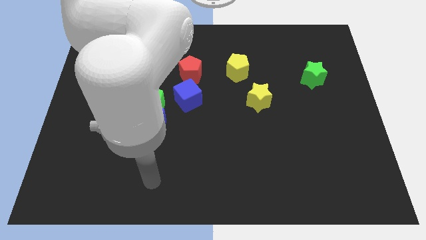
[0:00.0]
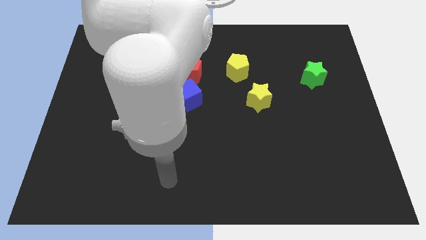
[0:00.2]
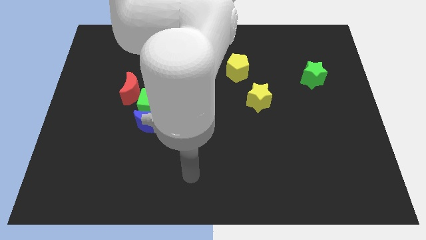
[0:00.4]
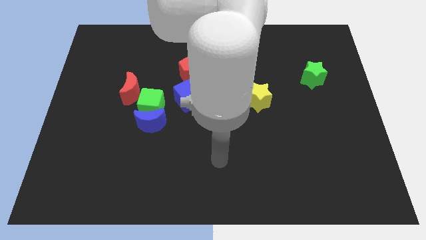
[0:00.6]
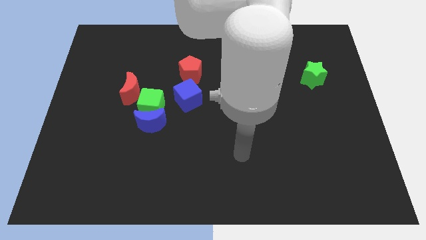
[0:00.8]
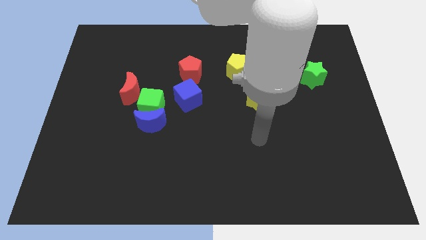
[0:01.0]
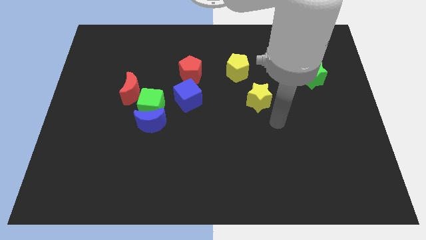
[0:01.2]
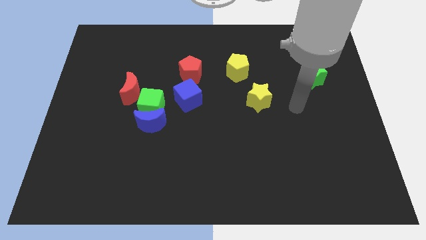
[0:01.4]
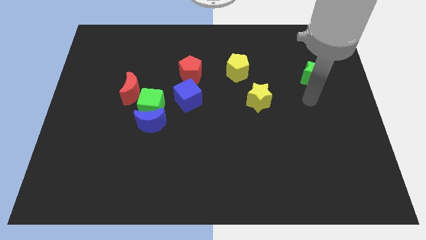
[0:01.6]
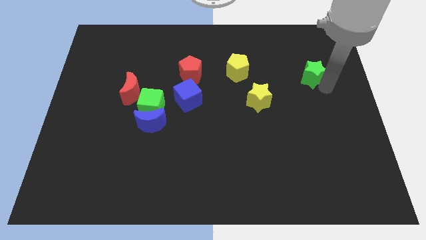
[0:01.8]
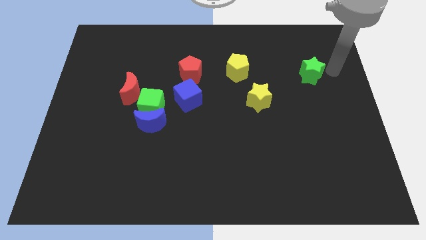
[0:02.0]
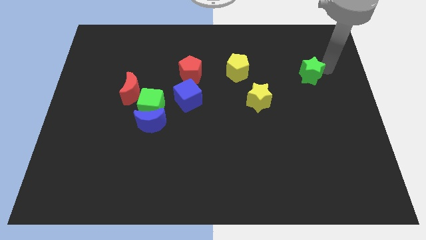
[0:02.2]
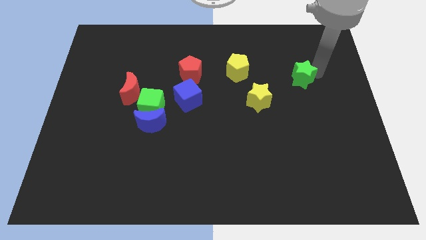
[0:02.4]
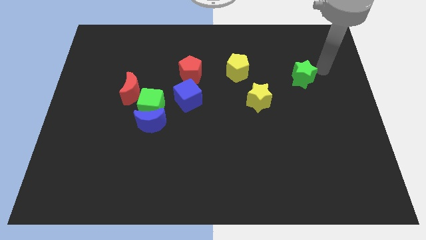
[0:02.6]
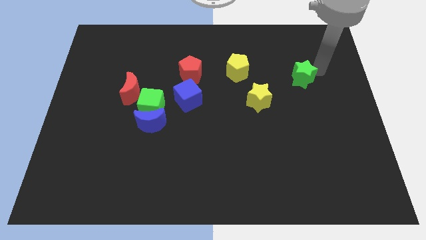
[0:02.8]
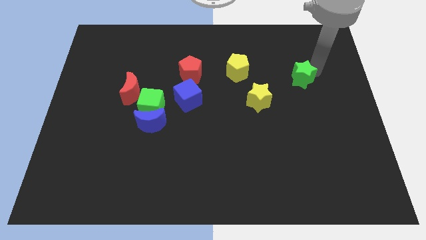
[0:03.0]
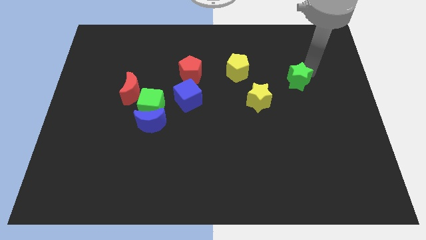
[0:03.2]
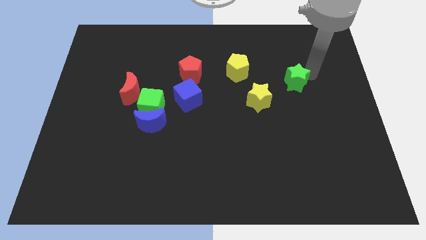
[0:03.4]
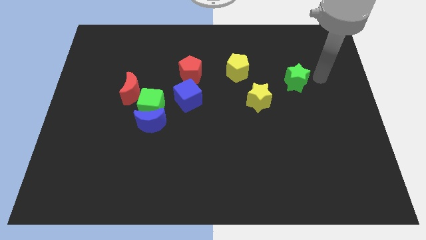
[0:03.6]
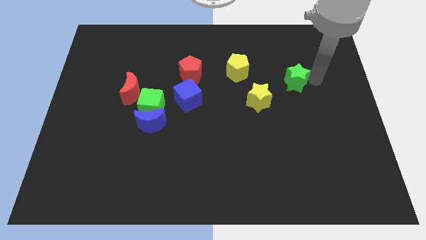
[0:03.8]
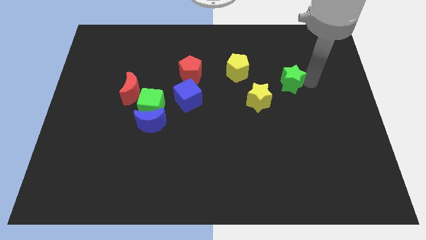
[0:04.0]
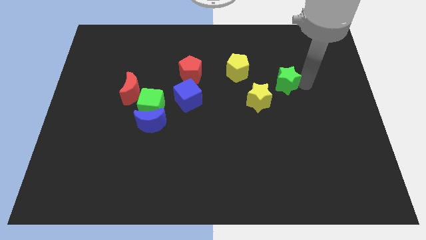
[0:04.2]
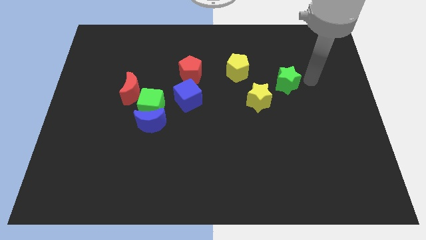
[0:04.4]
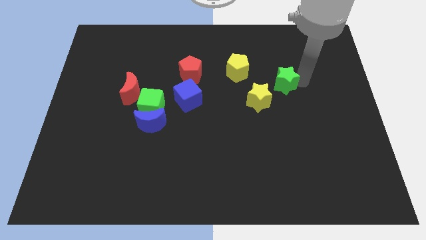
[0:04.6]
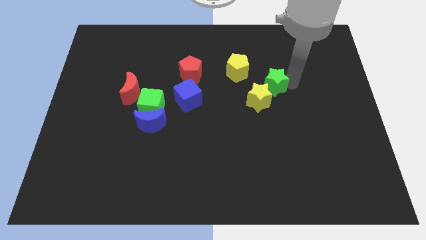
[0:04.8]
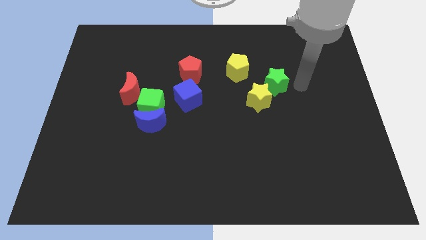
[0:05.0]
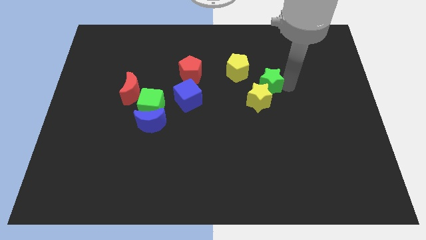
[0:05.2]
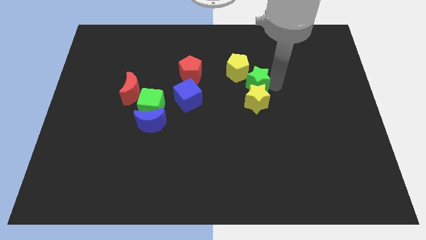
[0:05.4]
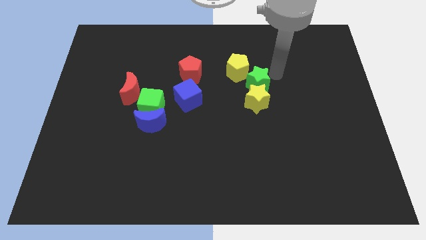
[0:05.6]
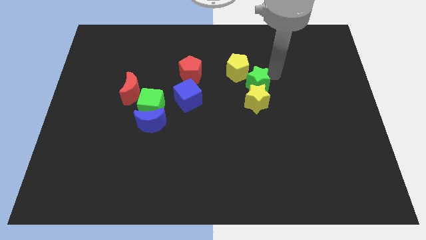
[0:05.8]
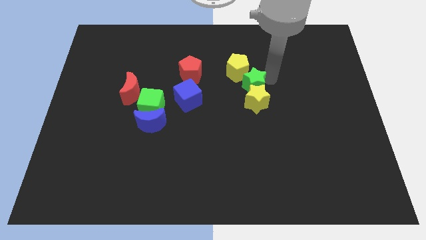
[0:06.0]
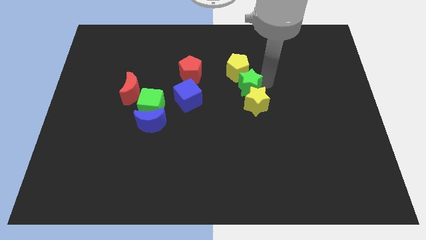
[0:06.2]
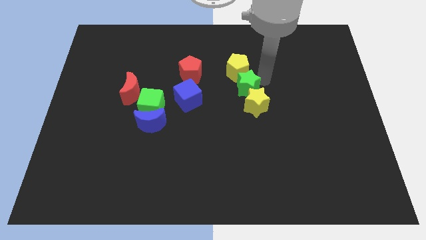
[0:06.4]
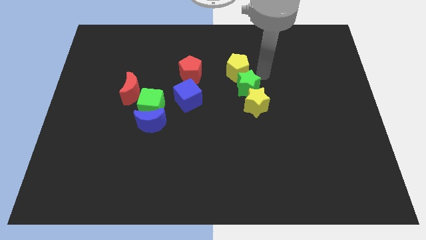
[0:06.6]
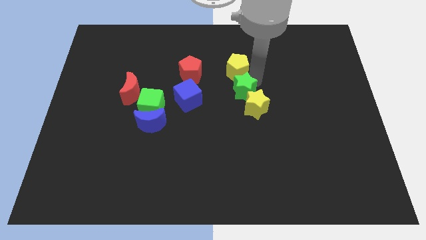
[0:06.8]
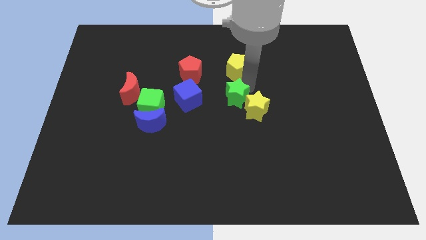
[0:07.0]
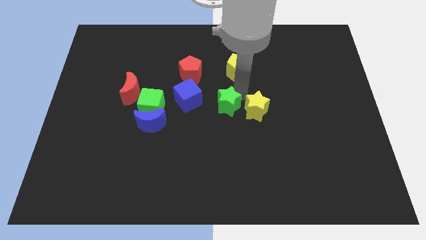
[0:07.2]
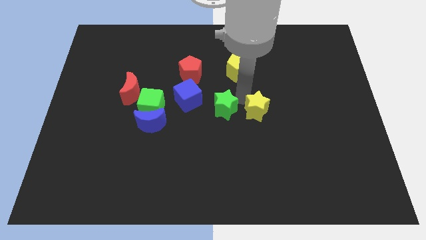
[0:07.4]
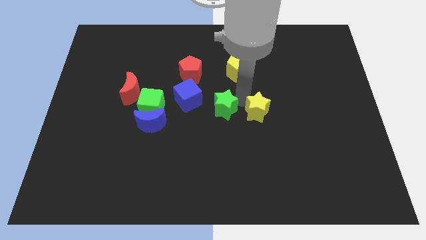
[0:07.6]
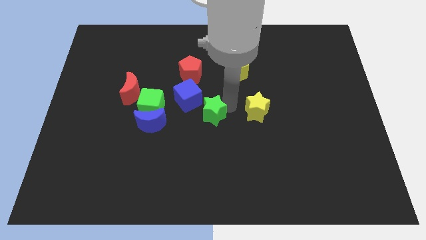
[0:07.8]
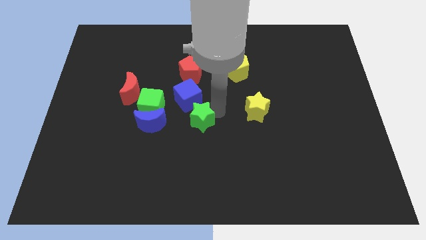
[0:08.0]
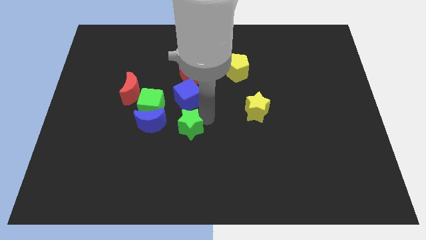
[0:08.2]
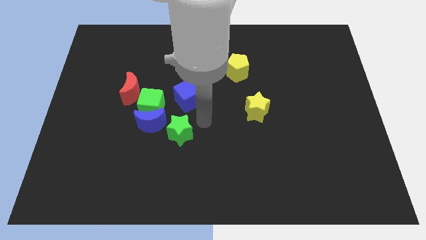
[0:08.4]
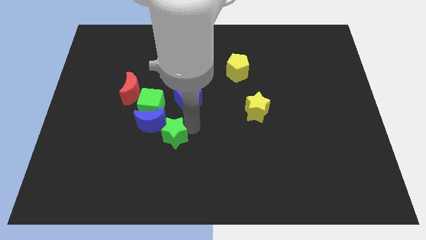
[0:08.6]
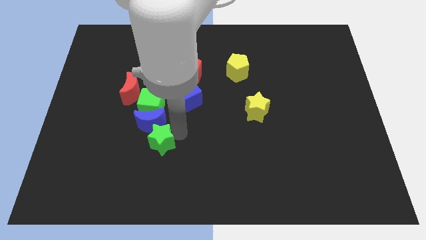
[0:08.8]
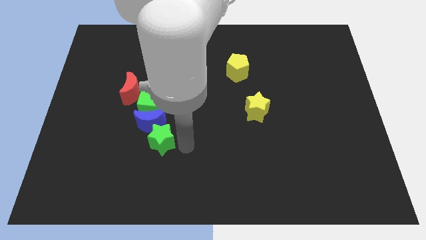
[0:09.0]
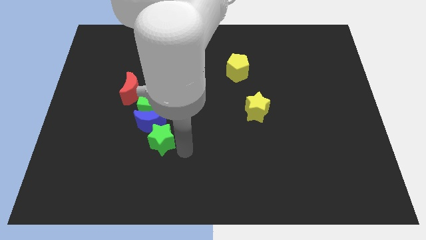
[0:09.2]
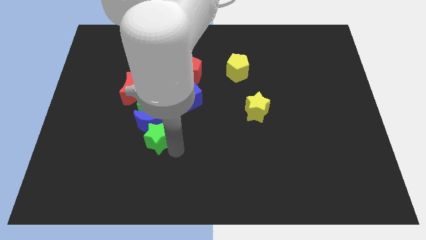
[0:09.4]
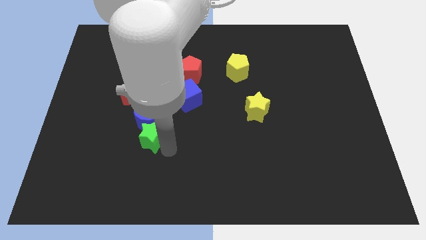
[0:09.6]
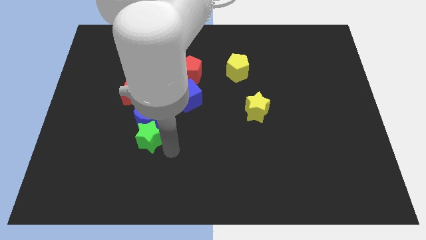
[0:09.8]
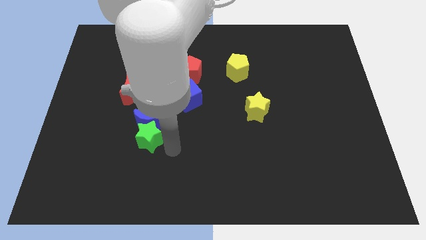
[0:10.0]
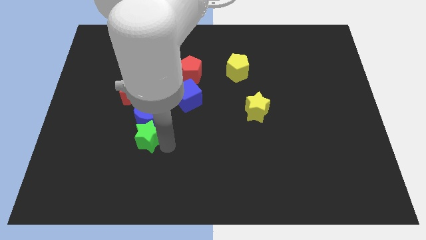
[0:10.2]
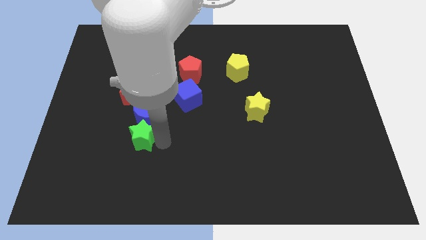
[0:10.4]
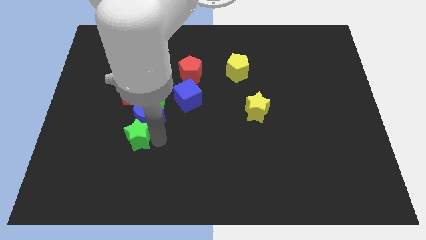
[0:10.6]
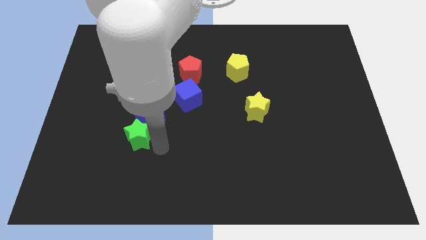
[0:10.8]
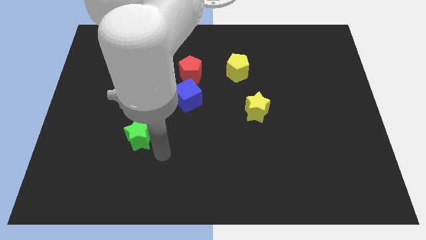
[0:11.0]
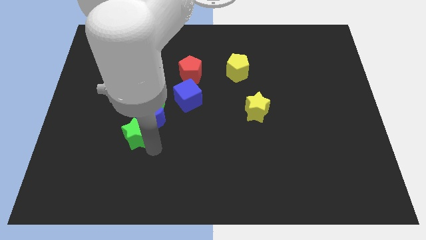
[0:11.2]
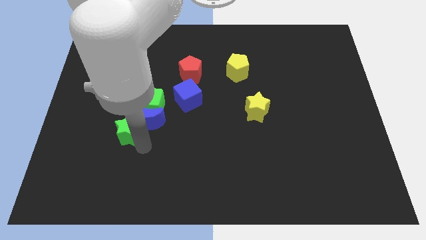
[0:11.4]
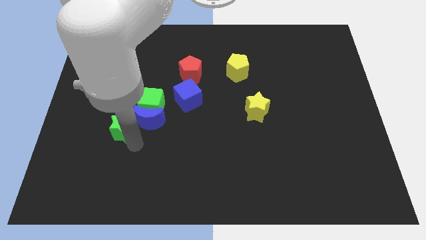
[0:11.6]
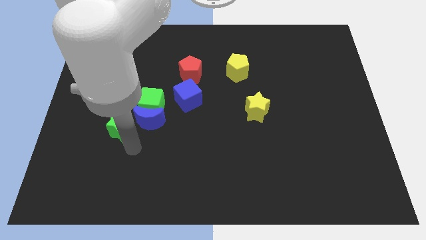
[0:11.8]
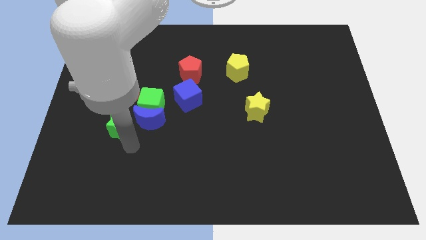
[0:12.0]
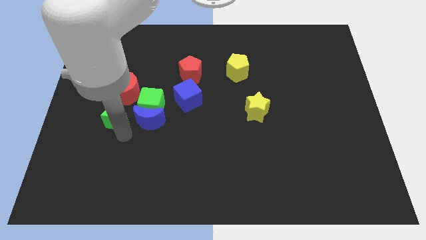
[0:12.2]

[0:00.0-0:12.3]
move the green star to the bottom left of the red moon

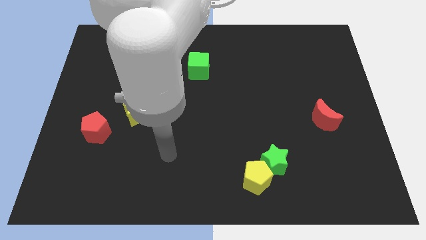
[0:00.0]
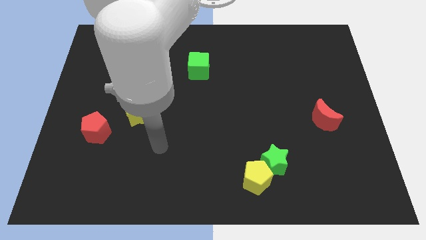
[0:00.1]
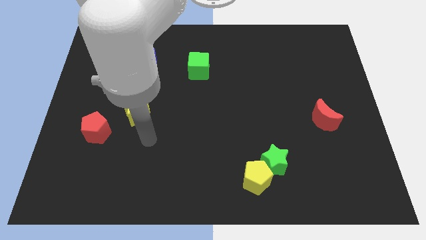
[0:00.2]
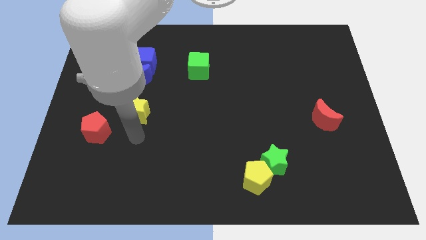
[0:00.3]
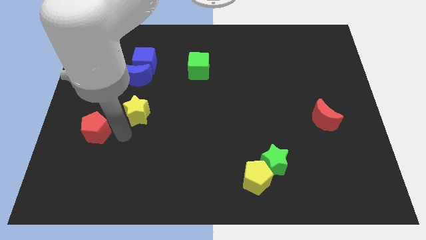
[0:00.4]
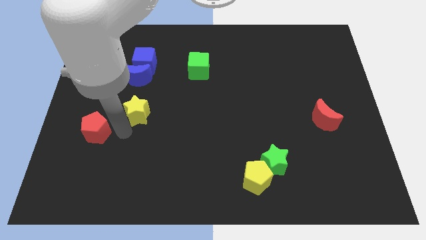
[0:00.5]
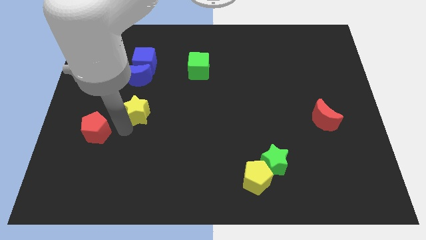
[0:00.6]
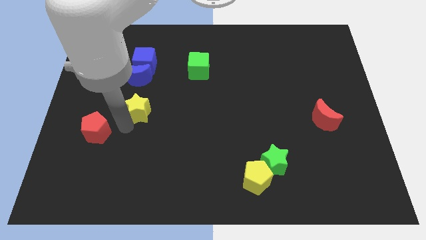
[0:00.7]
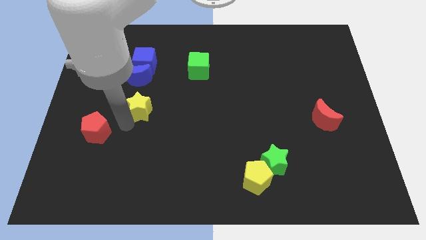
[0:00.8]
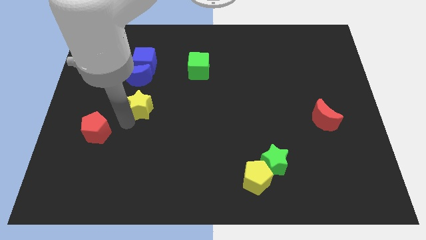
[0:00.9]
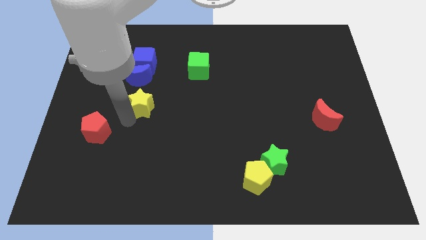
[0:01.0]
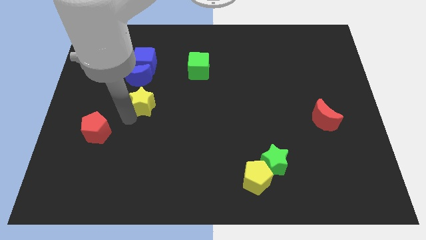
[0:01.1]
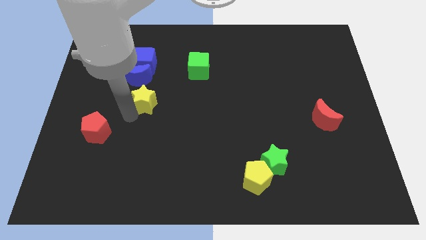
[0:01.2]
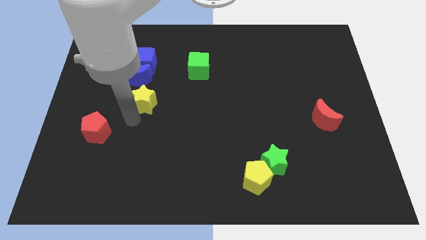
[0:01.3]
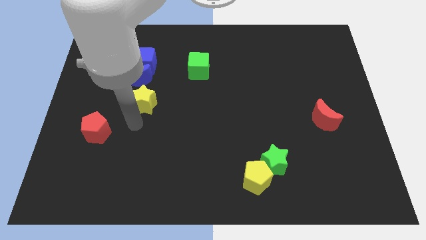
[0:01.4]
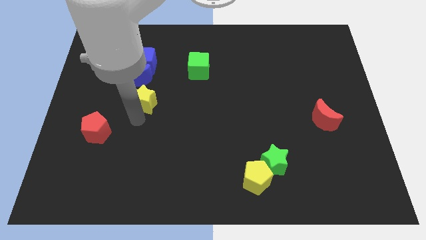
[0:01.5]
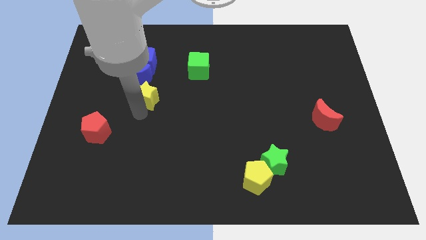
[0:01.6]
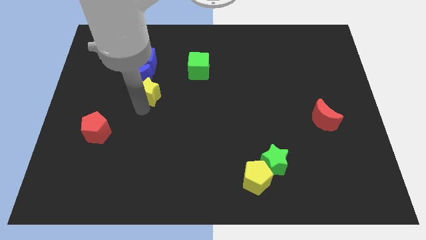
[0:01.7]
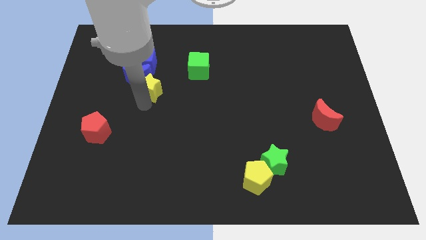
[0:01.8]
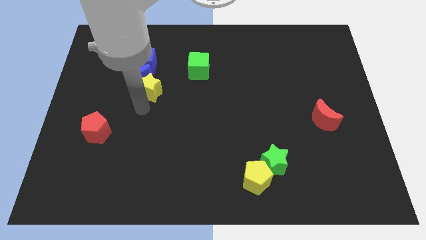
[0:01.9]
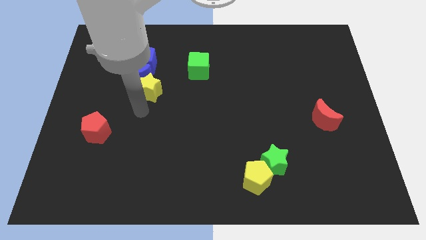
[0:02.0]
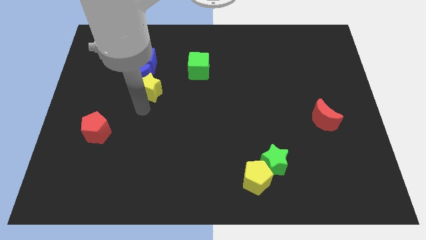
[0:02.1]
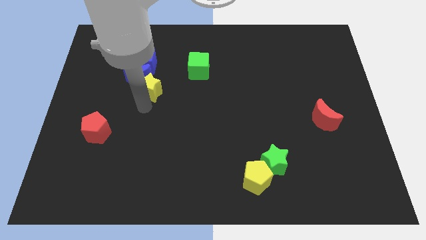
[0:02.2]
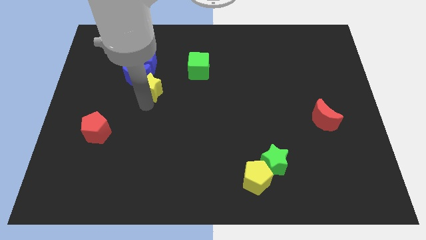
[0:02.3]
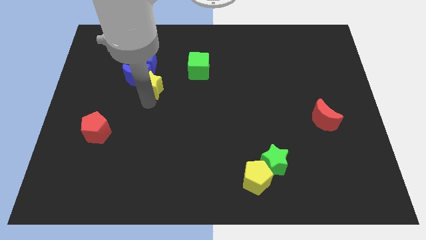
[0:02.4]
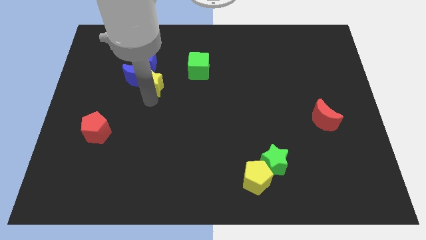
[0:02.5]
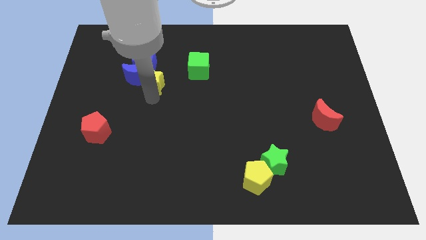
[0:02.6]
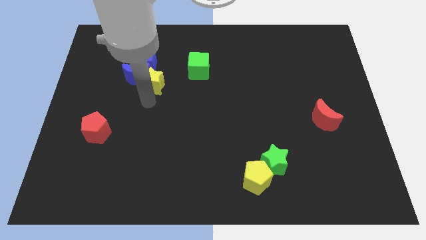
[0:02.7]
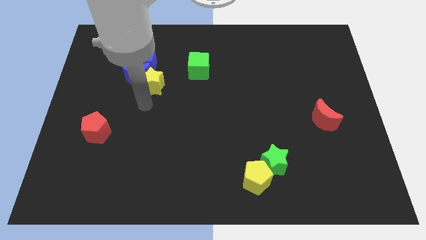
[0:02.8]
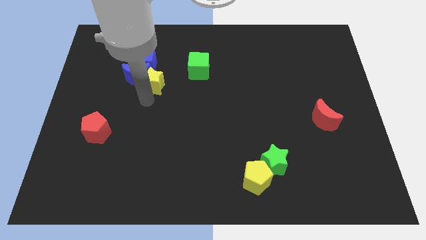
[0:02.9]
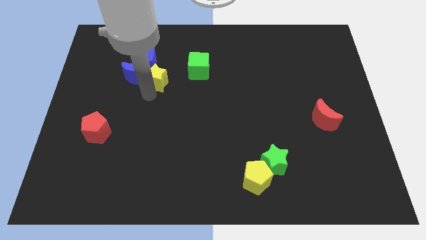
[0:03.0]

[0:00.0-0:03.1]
push the yellow star left of the green cube
